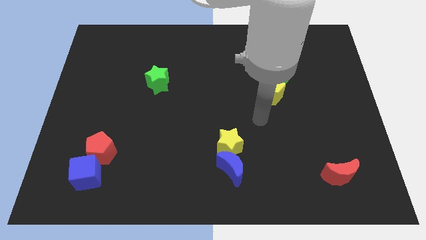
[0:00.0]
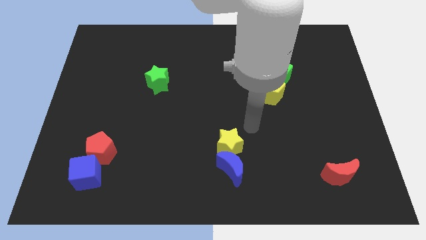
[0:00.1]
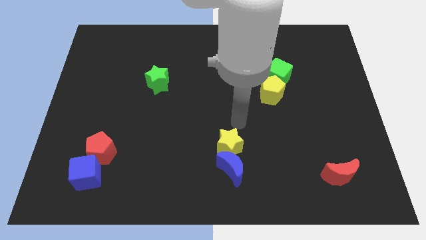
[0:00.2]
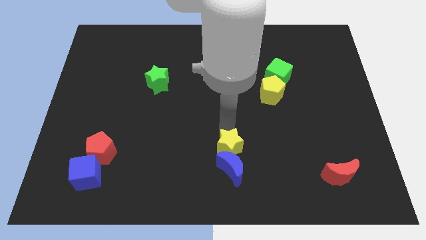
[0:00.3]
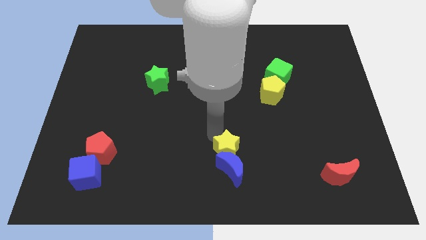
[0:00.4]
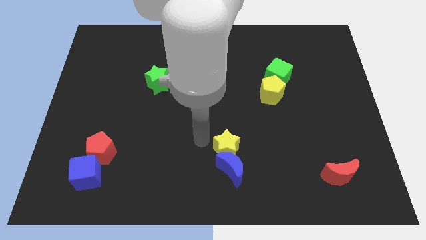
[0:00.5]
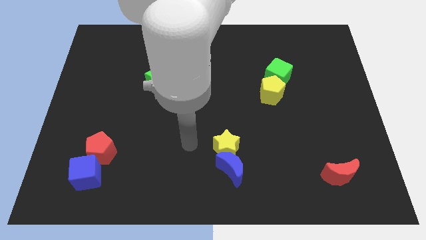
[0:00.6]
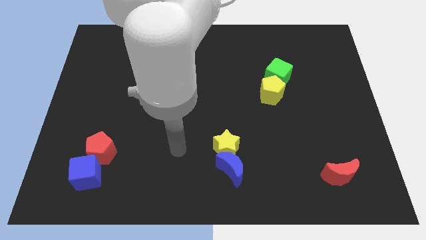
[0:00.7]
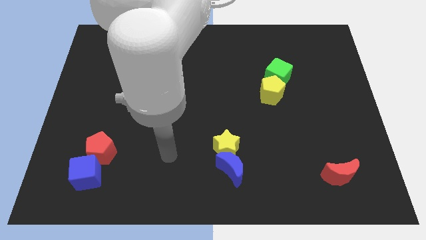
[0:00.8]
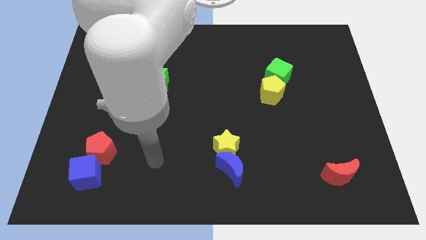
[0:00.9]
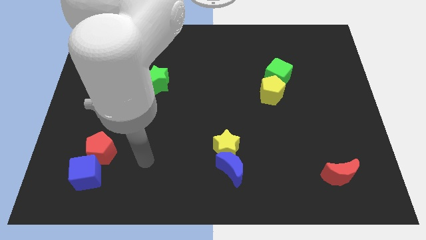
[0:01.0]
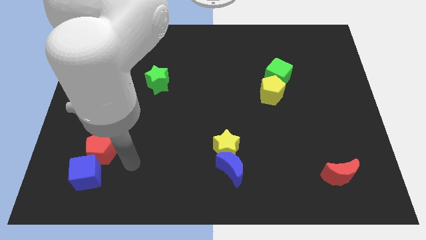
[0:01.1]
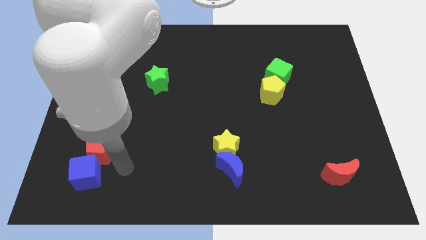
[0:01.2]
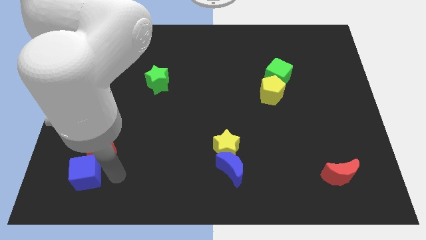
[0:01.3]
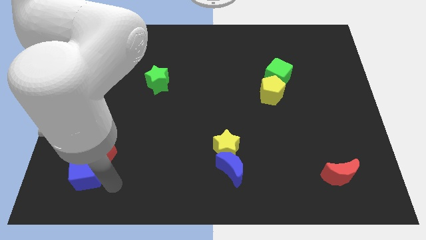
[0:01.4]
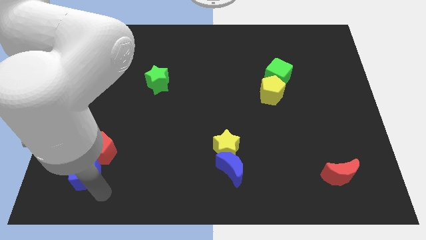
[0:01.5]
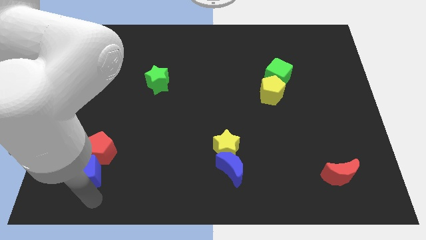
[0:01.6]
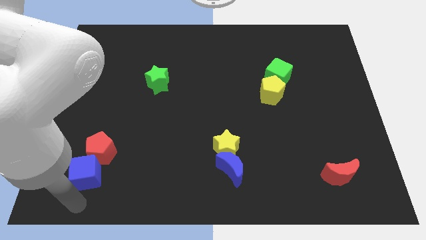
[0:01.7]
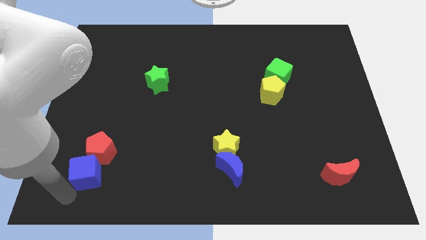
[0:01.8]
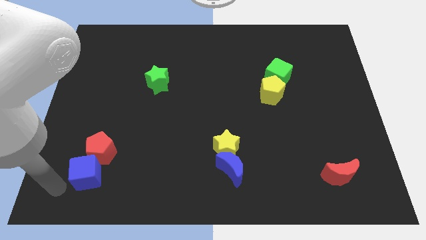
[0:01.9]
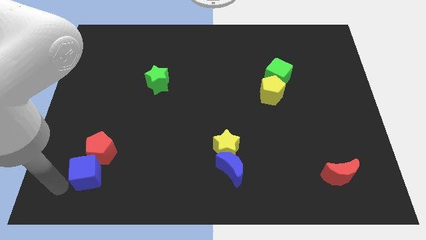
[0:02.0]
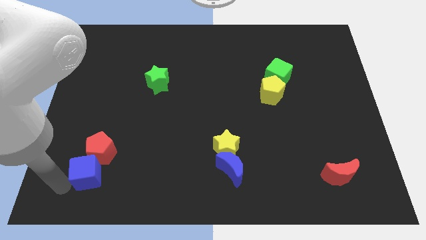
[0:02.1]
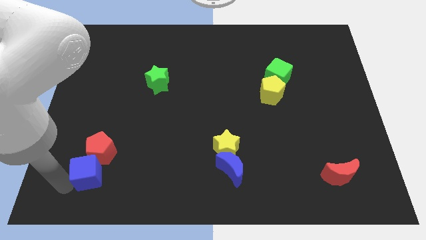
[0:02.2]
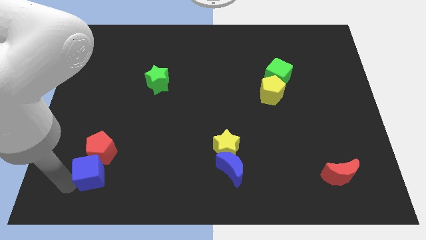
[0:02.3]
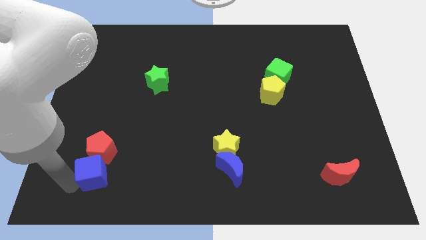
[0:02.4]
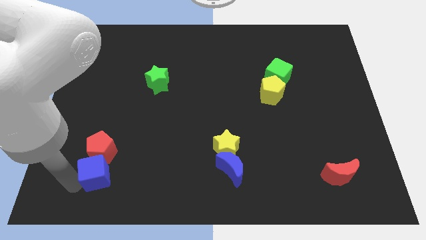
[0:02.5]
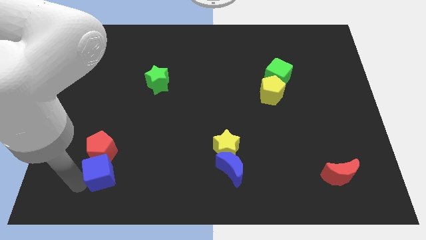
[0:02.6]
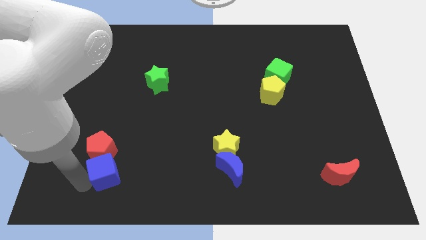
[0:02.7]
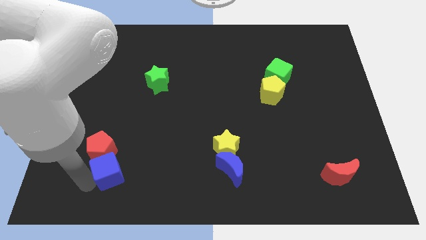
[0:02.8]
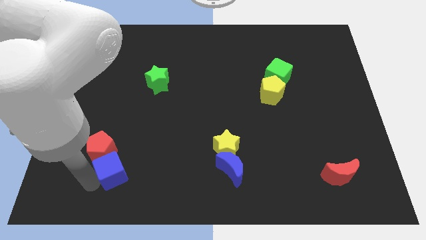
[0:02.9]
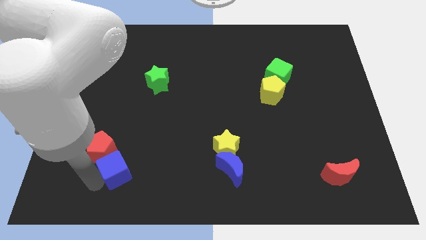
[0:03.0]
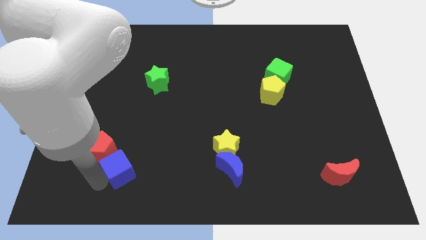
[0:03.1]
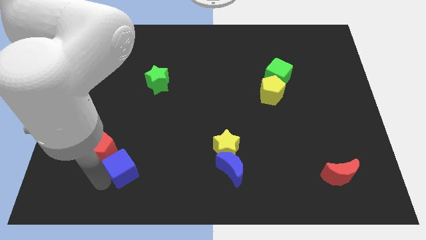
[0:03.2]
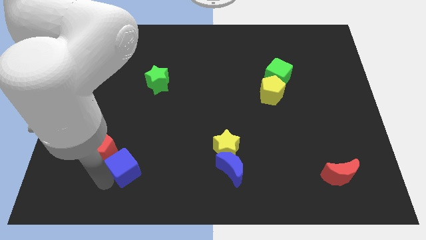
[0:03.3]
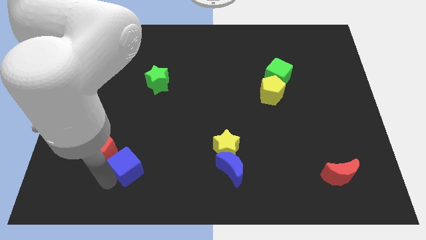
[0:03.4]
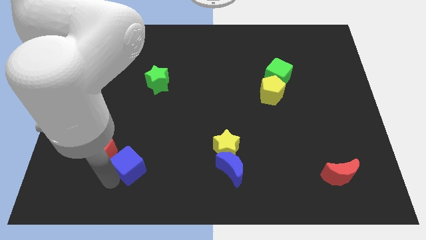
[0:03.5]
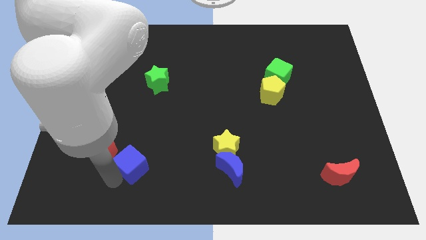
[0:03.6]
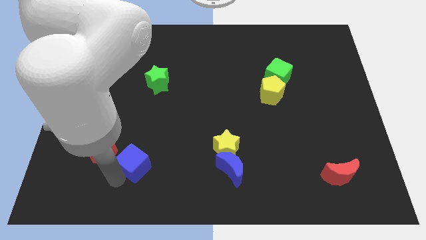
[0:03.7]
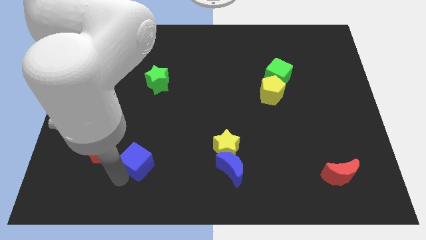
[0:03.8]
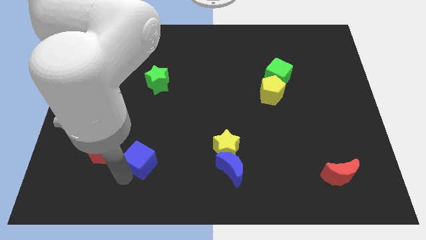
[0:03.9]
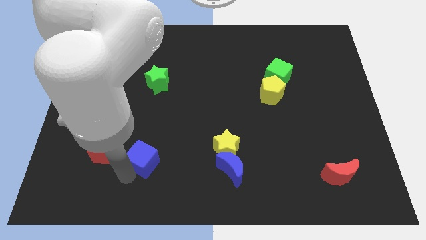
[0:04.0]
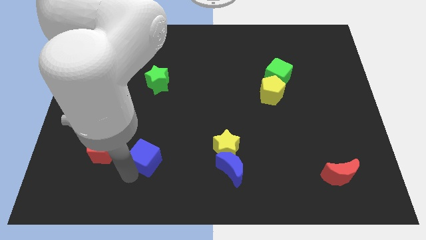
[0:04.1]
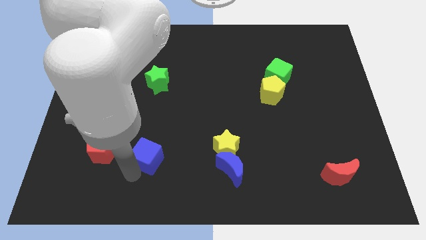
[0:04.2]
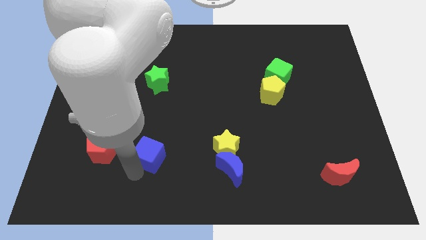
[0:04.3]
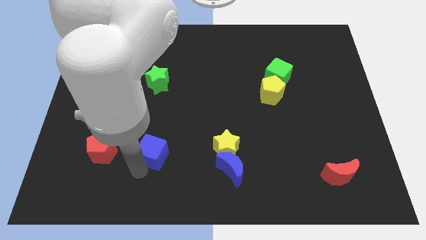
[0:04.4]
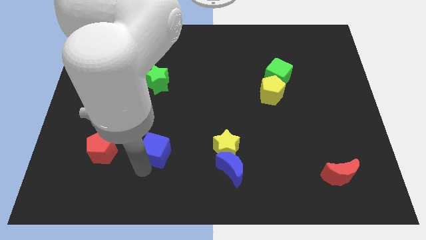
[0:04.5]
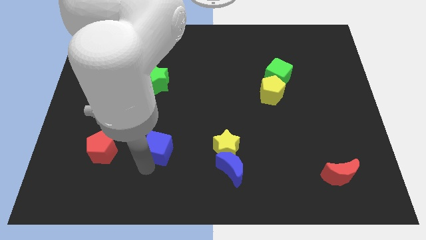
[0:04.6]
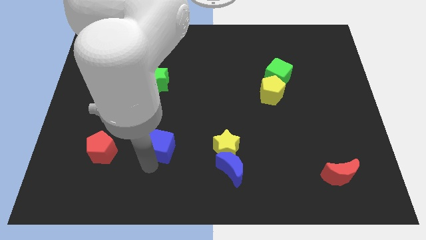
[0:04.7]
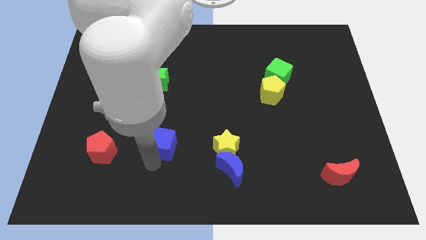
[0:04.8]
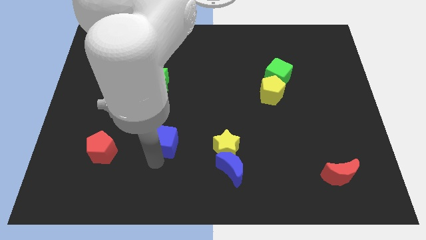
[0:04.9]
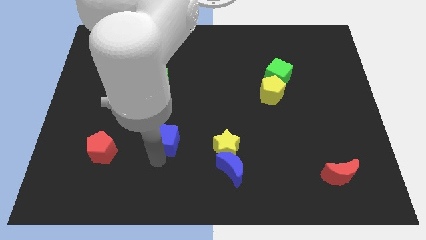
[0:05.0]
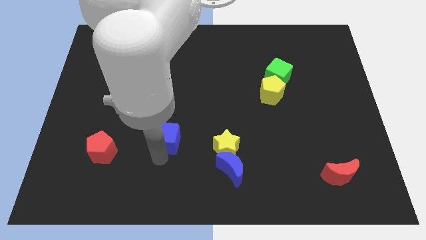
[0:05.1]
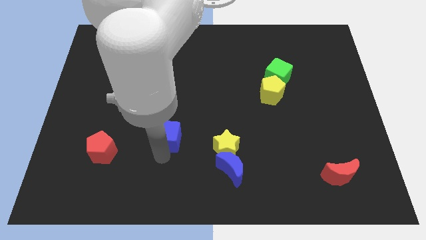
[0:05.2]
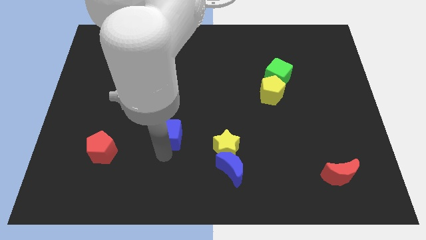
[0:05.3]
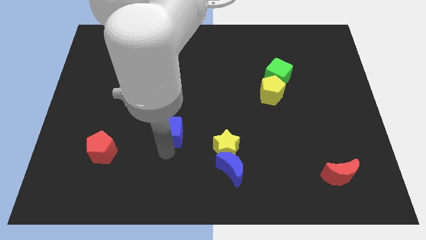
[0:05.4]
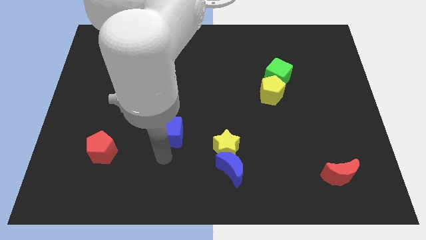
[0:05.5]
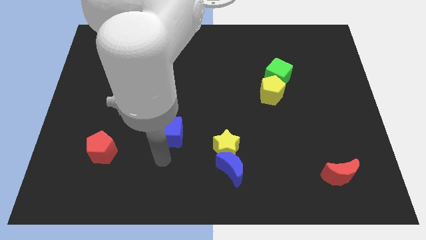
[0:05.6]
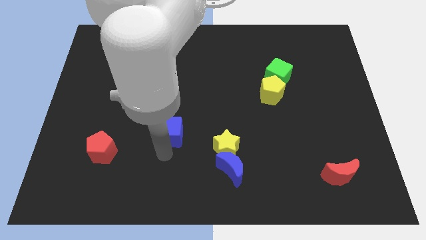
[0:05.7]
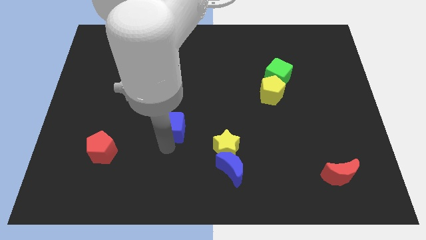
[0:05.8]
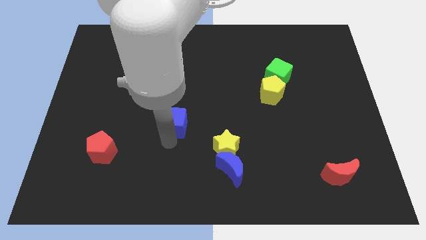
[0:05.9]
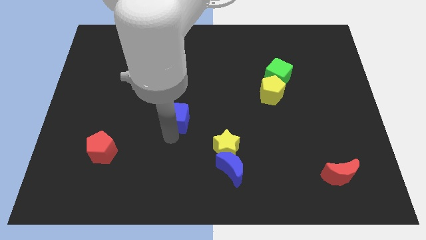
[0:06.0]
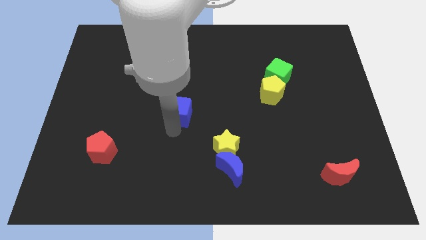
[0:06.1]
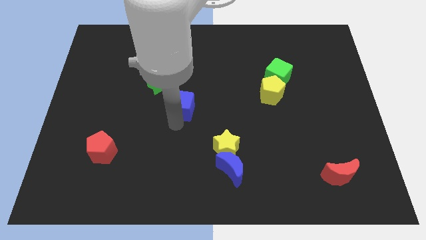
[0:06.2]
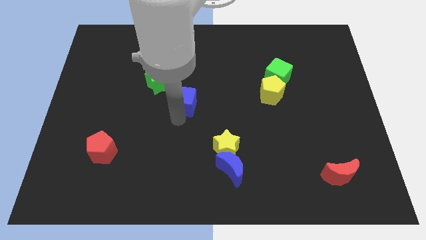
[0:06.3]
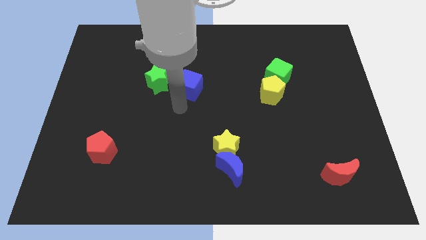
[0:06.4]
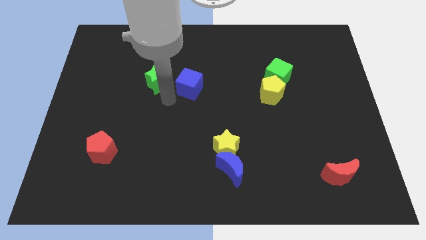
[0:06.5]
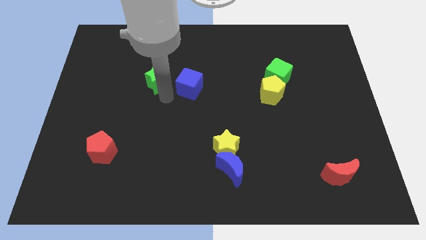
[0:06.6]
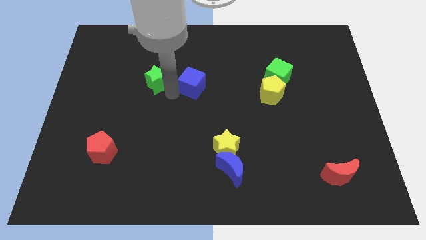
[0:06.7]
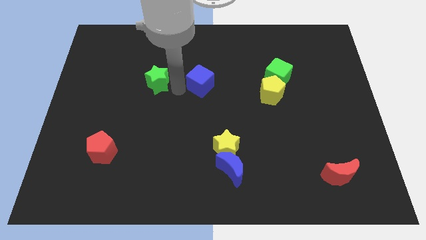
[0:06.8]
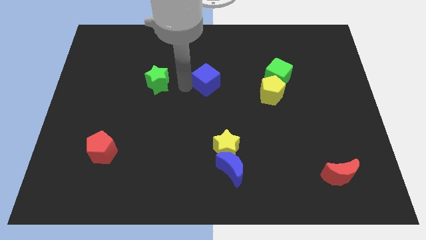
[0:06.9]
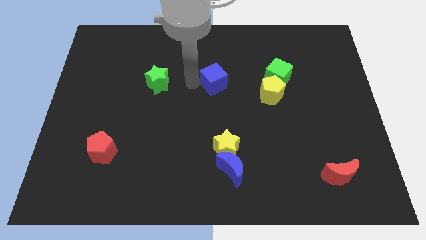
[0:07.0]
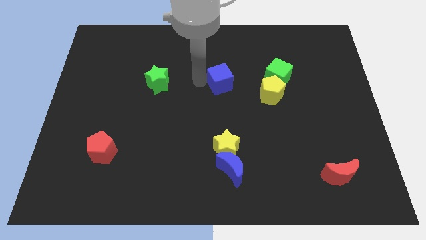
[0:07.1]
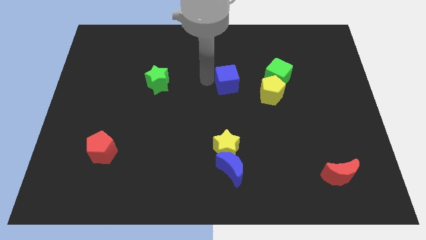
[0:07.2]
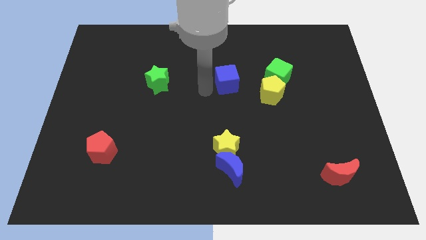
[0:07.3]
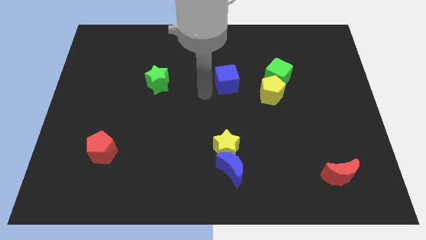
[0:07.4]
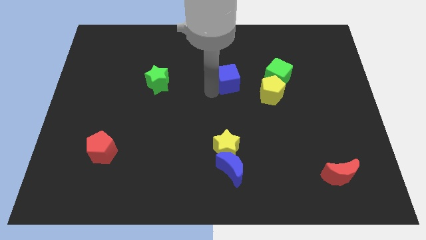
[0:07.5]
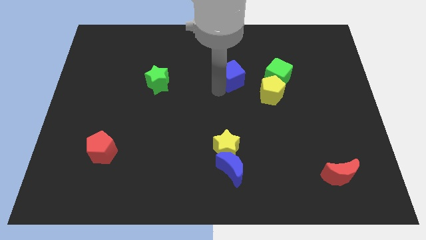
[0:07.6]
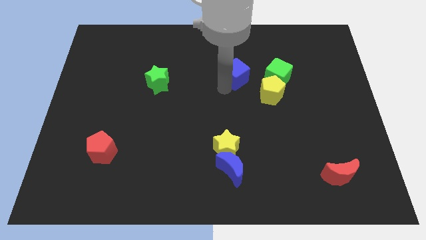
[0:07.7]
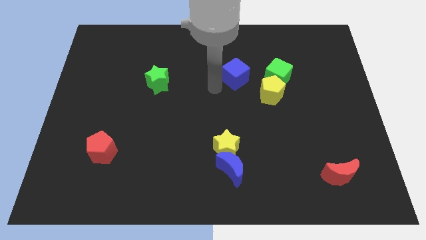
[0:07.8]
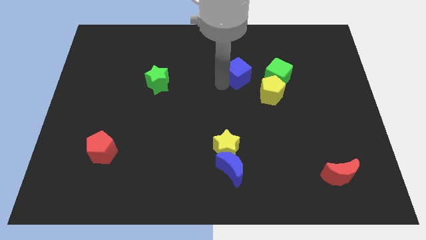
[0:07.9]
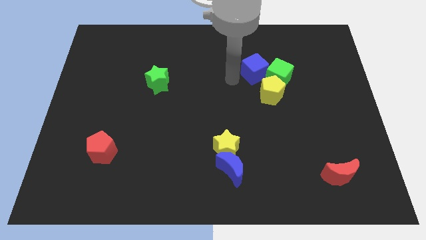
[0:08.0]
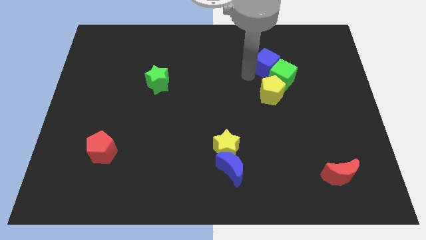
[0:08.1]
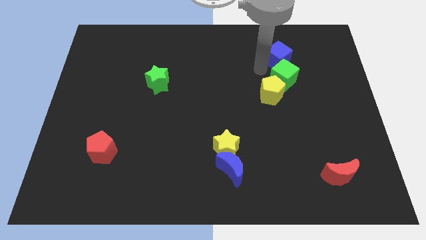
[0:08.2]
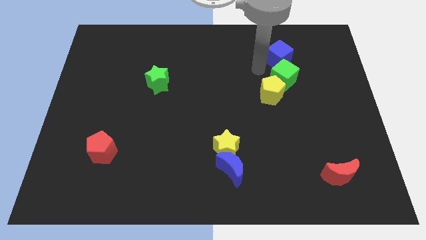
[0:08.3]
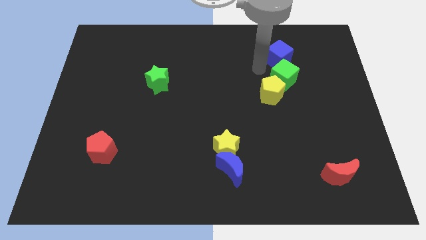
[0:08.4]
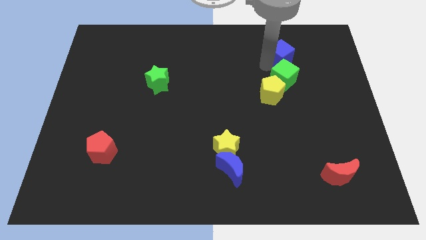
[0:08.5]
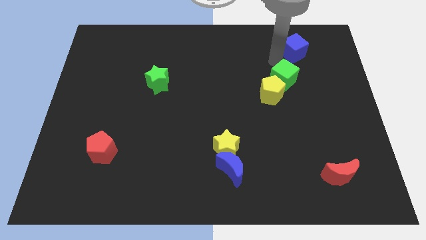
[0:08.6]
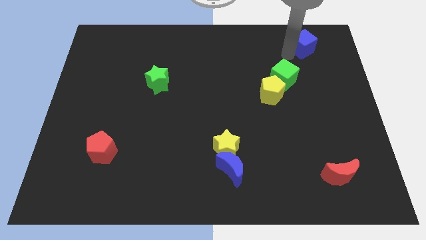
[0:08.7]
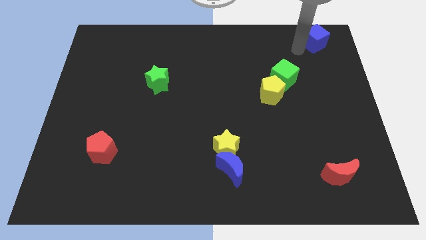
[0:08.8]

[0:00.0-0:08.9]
put the blue cube to the upper right corner
